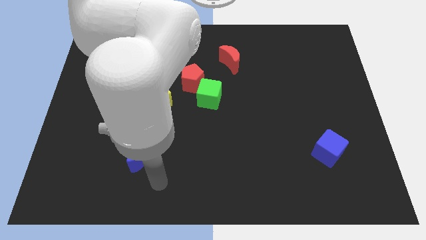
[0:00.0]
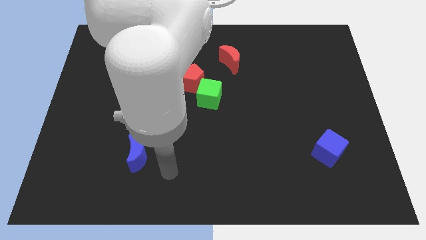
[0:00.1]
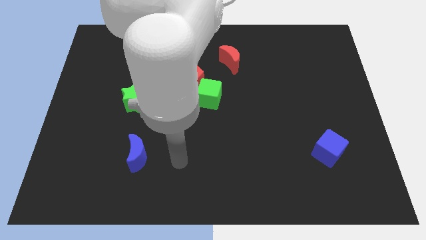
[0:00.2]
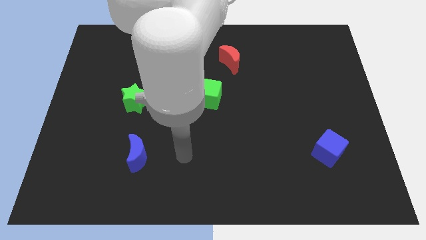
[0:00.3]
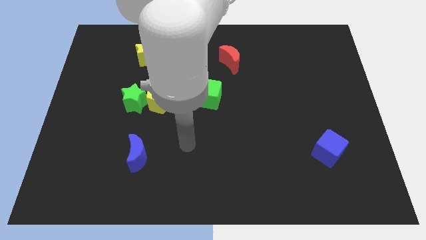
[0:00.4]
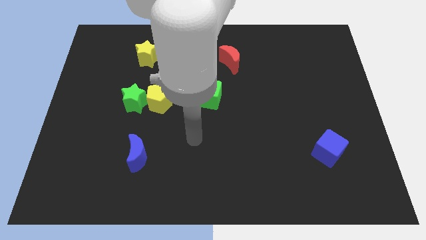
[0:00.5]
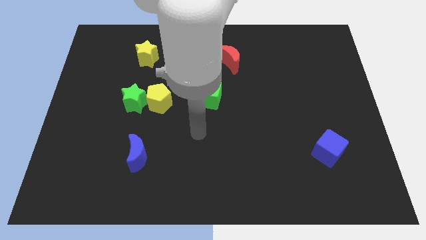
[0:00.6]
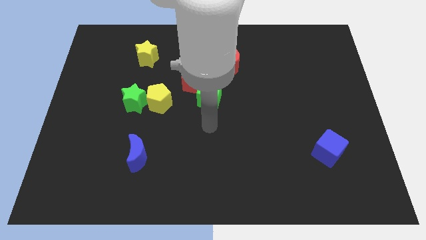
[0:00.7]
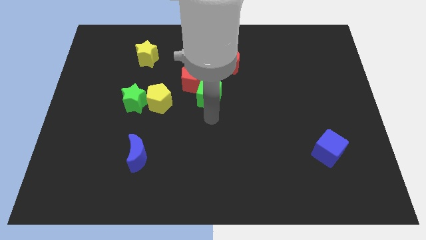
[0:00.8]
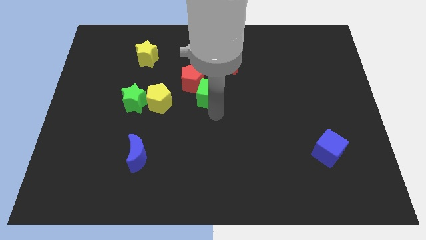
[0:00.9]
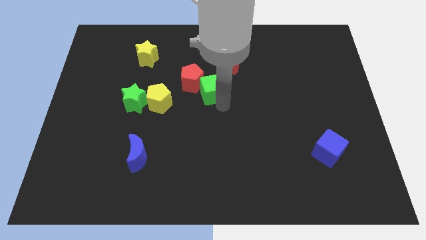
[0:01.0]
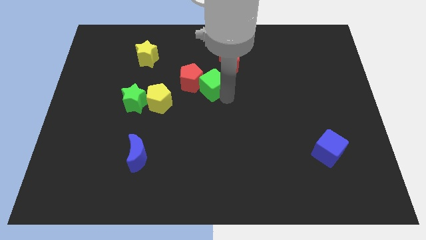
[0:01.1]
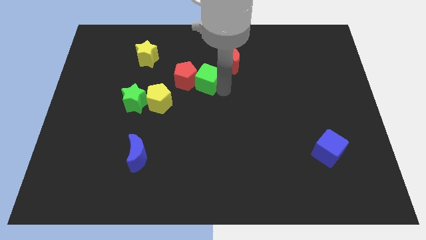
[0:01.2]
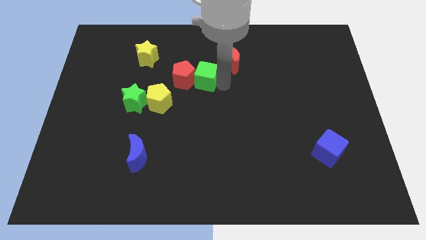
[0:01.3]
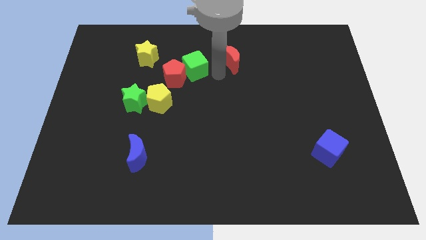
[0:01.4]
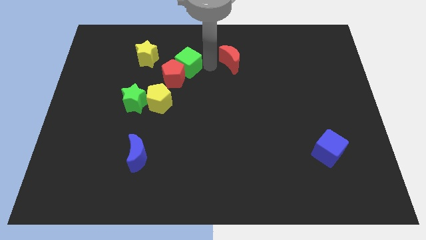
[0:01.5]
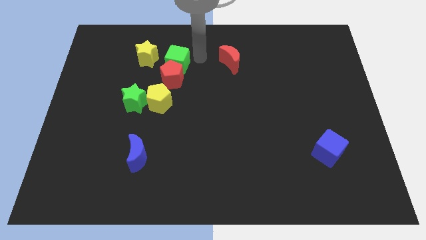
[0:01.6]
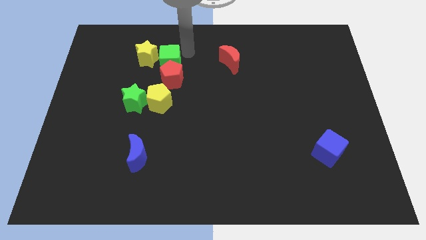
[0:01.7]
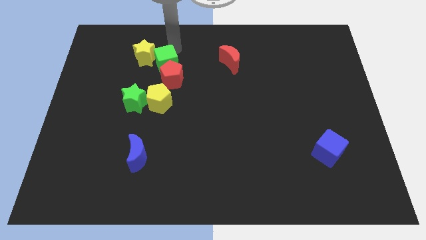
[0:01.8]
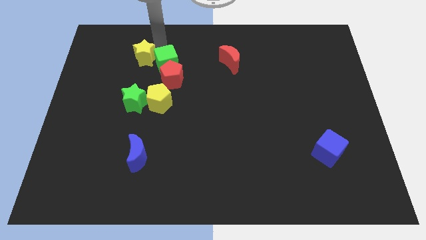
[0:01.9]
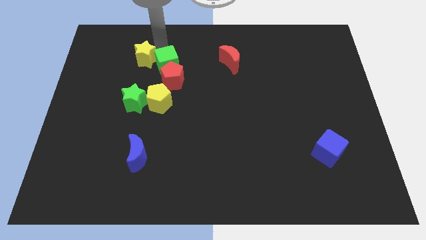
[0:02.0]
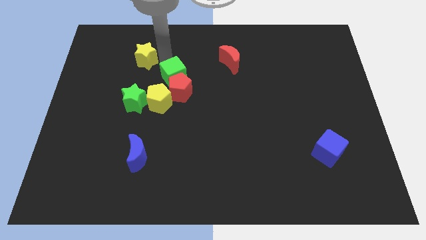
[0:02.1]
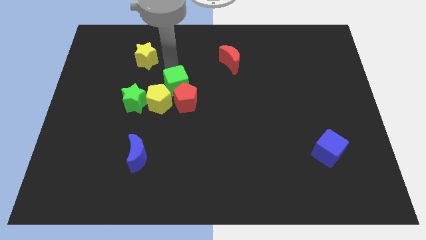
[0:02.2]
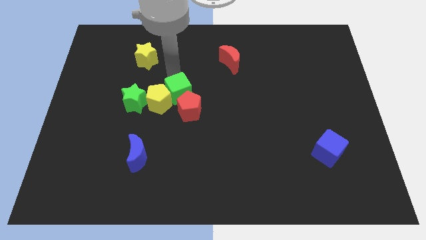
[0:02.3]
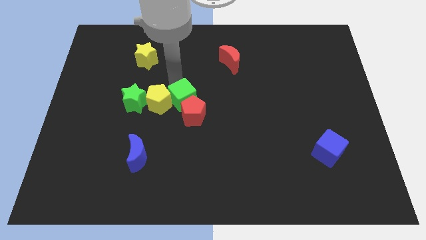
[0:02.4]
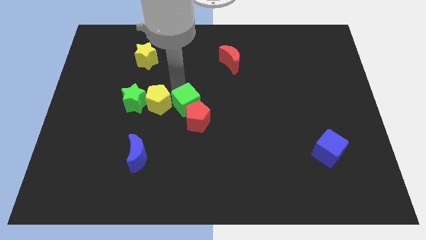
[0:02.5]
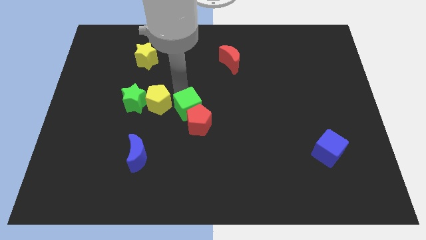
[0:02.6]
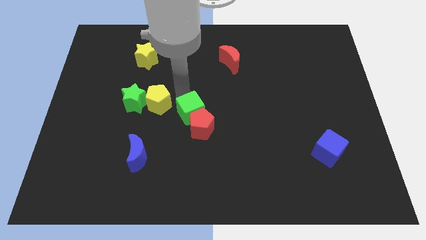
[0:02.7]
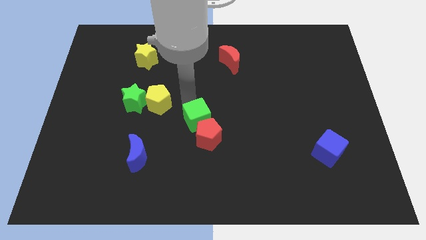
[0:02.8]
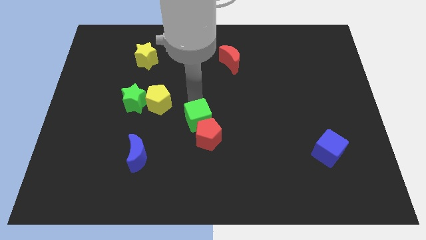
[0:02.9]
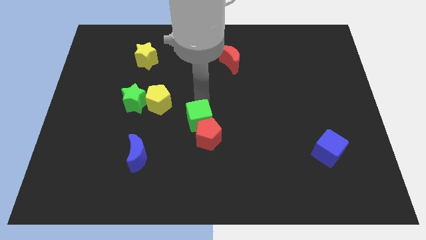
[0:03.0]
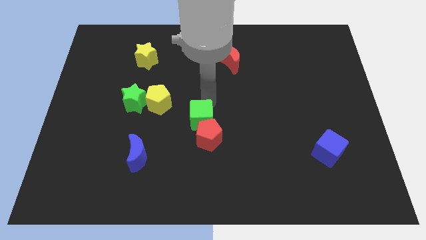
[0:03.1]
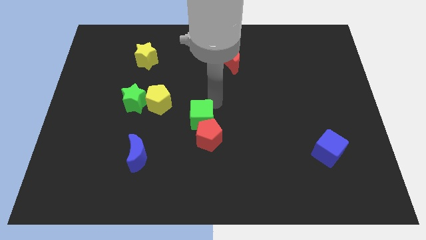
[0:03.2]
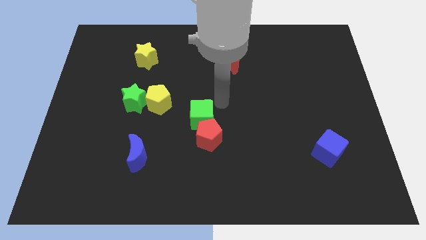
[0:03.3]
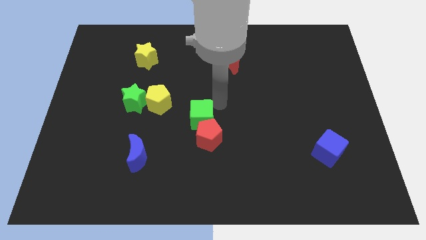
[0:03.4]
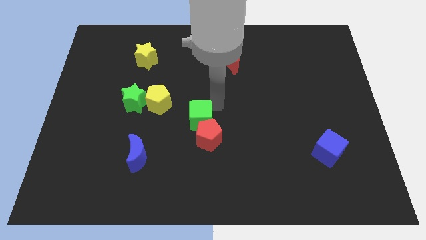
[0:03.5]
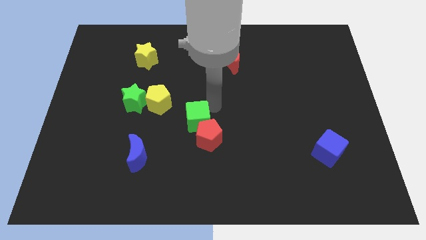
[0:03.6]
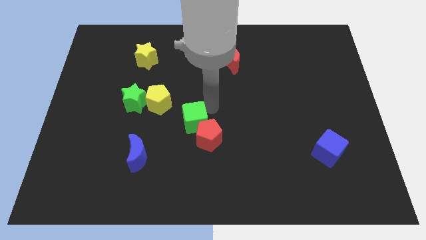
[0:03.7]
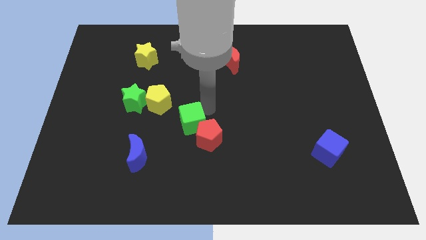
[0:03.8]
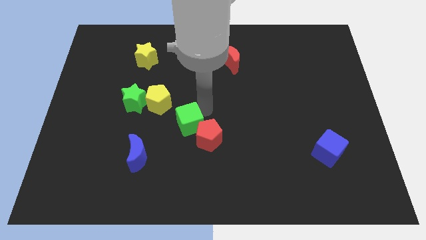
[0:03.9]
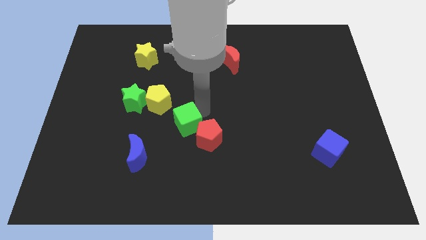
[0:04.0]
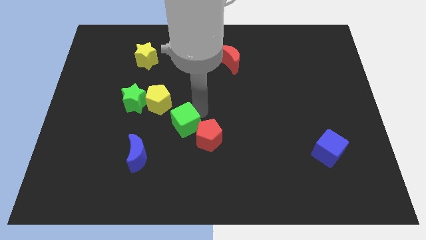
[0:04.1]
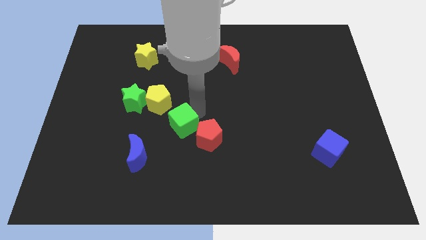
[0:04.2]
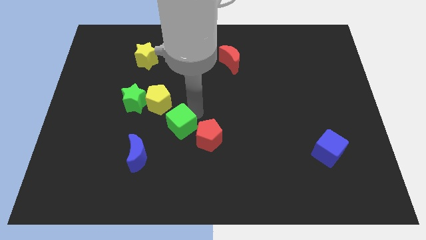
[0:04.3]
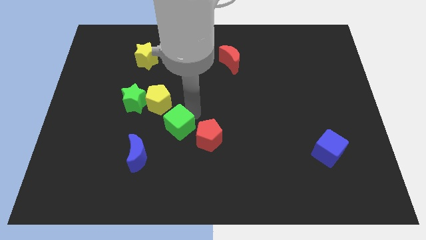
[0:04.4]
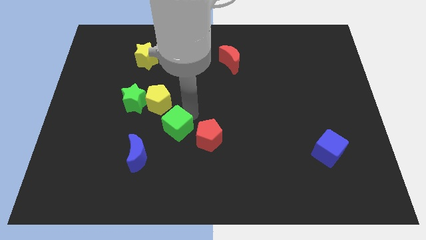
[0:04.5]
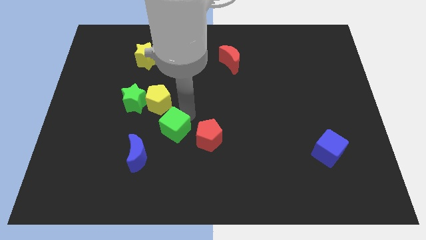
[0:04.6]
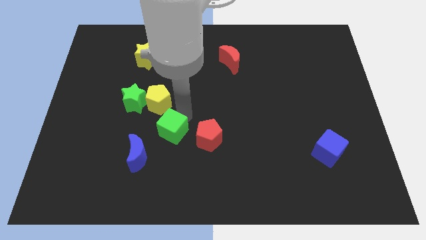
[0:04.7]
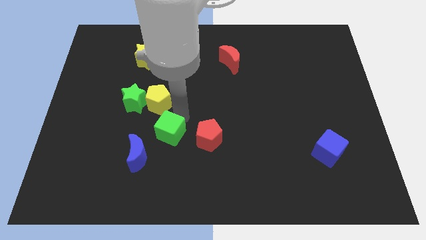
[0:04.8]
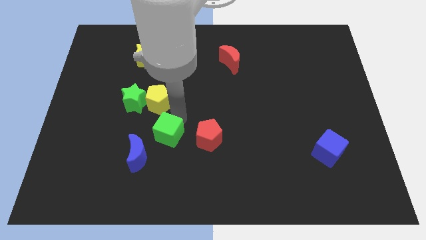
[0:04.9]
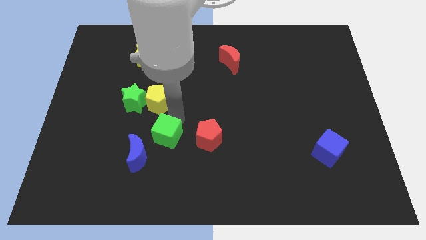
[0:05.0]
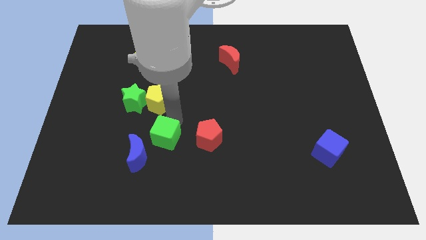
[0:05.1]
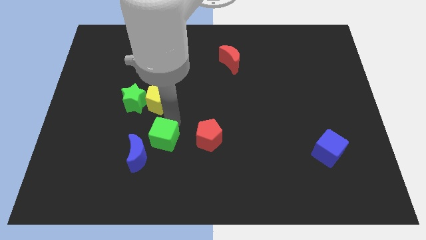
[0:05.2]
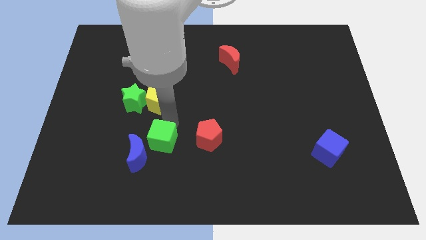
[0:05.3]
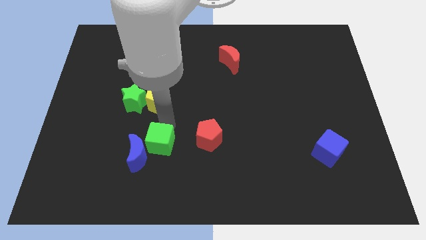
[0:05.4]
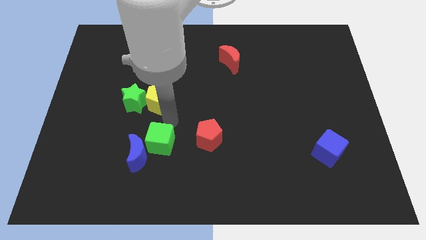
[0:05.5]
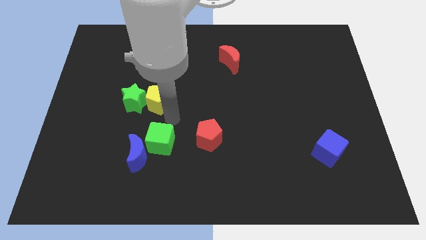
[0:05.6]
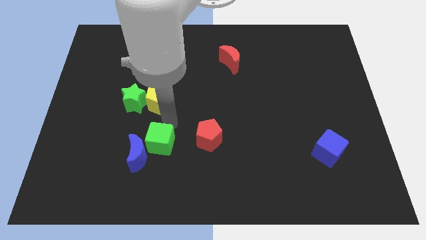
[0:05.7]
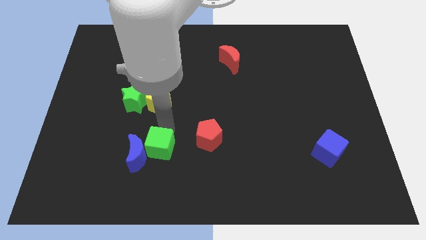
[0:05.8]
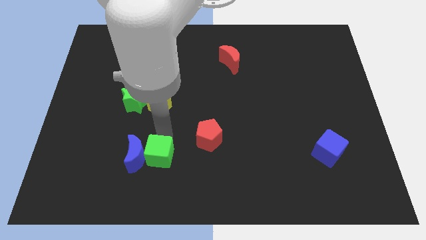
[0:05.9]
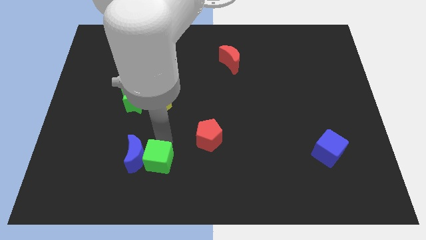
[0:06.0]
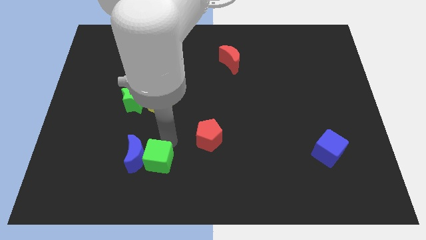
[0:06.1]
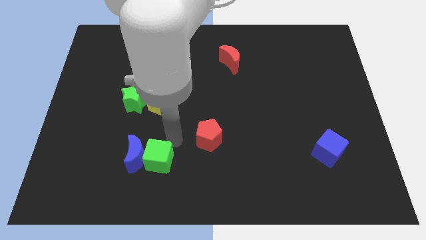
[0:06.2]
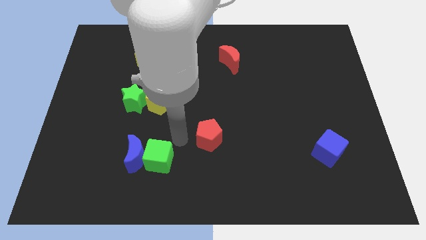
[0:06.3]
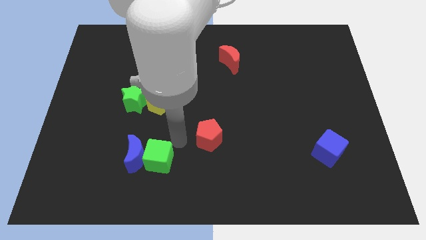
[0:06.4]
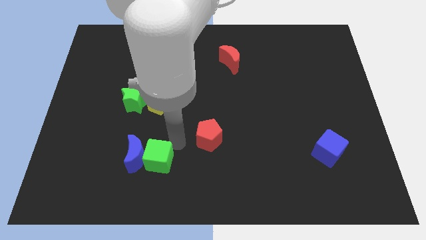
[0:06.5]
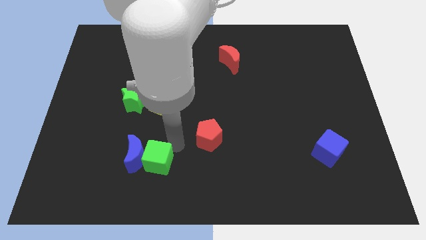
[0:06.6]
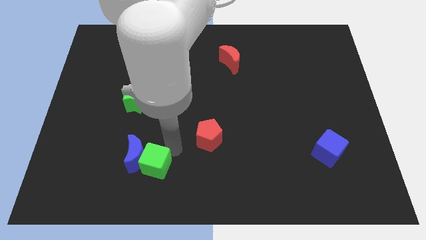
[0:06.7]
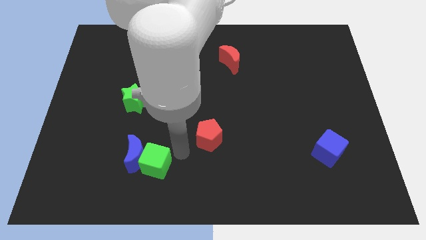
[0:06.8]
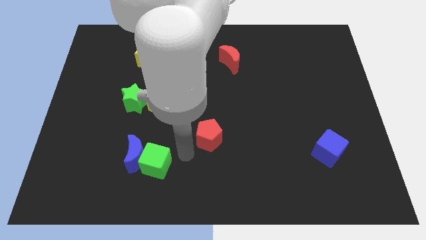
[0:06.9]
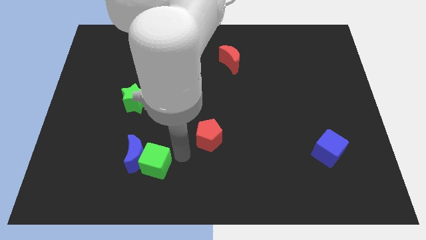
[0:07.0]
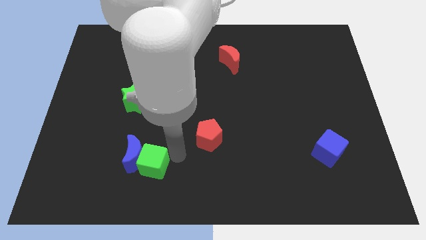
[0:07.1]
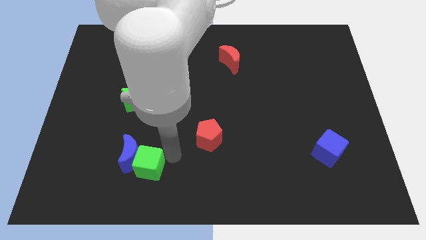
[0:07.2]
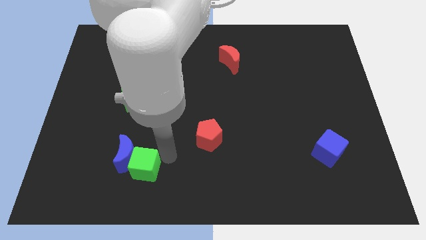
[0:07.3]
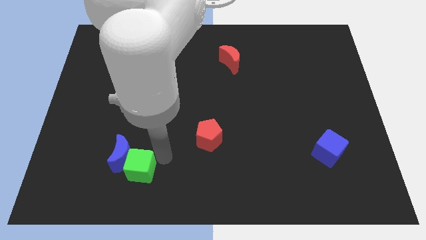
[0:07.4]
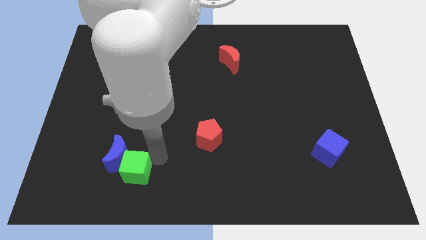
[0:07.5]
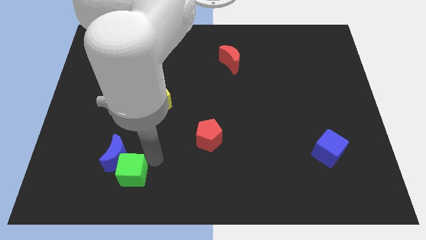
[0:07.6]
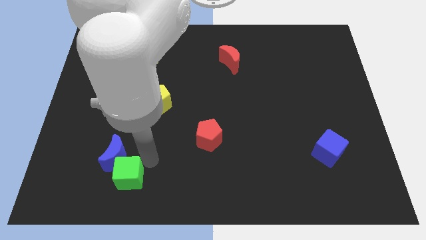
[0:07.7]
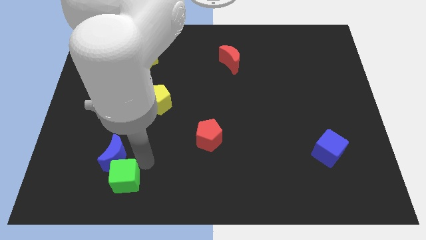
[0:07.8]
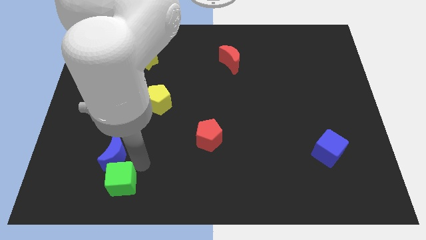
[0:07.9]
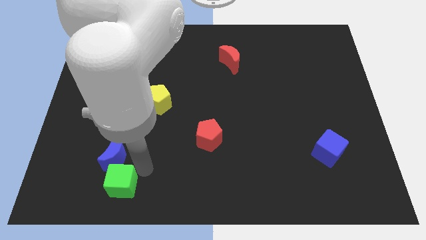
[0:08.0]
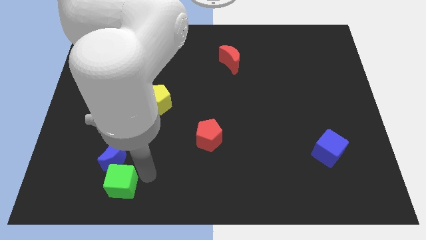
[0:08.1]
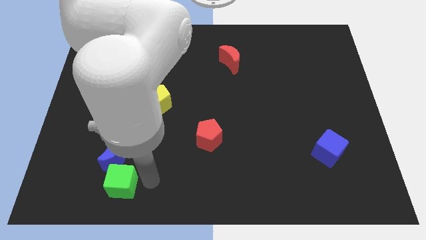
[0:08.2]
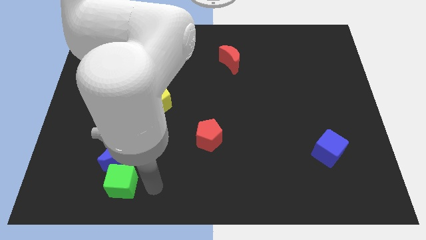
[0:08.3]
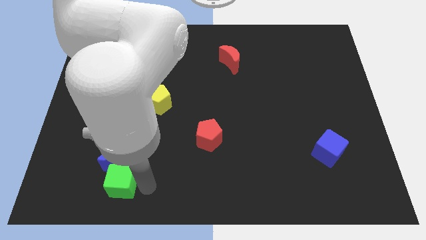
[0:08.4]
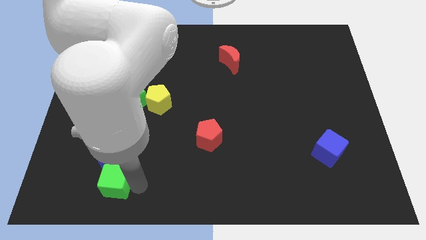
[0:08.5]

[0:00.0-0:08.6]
move the green cube diagonally down and to the left of the blue moon
